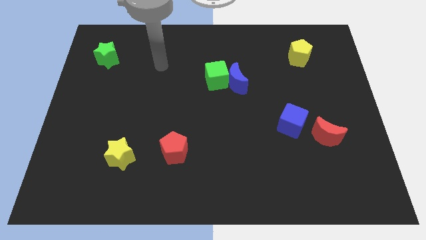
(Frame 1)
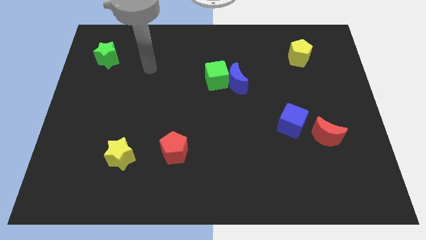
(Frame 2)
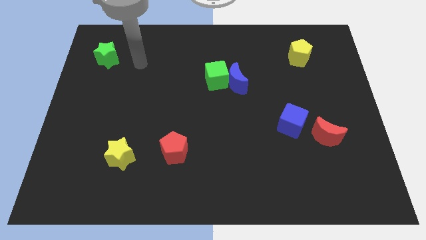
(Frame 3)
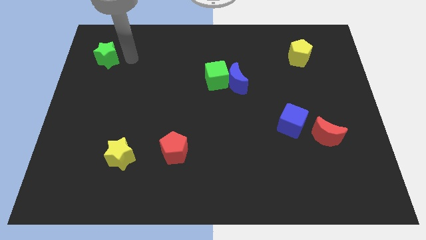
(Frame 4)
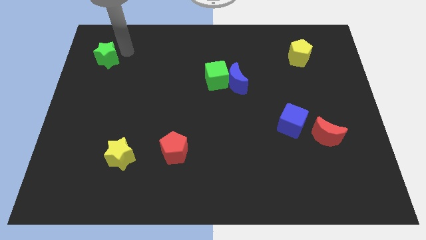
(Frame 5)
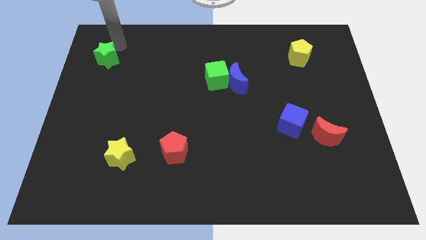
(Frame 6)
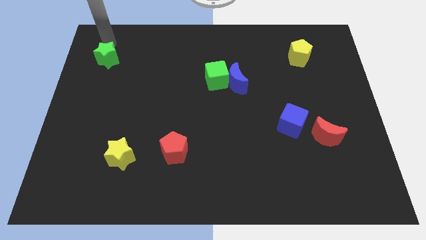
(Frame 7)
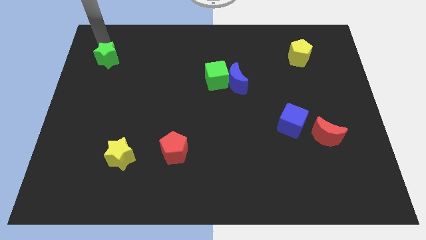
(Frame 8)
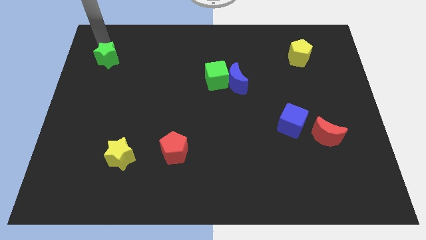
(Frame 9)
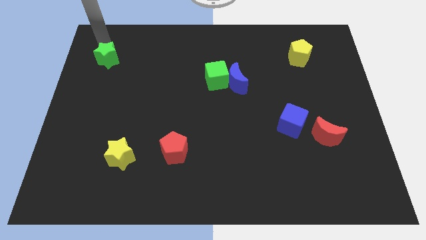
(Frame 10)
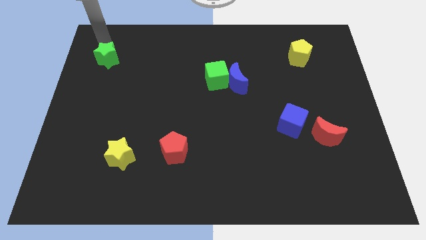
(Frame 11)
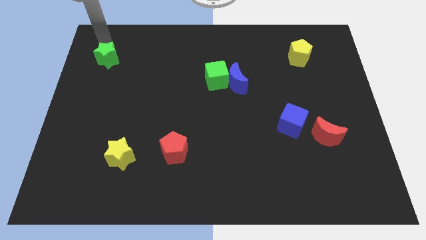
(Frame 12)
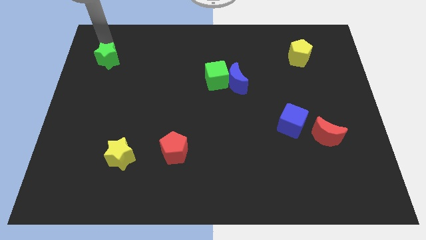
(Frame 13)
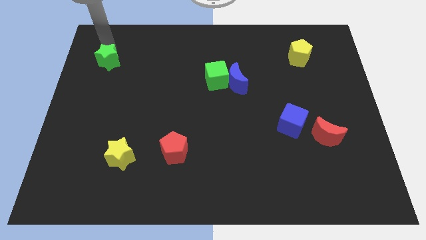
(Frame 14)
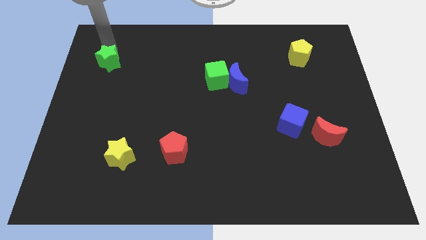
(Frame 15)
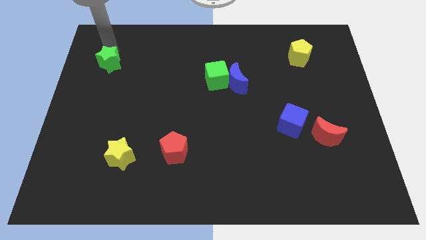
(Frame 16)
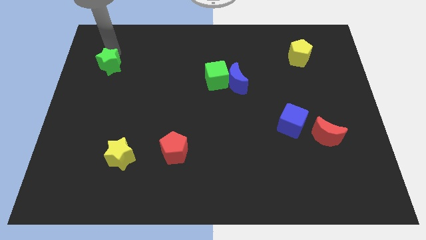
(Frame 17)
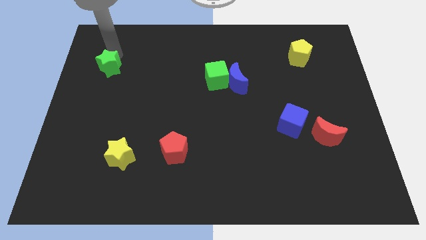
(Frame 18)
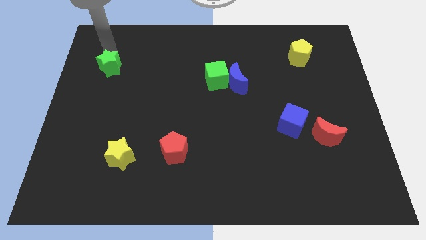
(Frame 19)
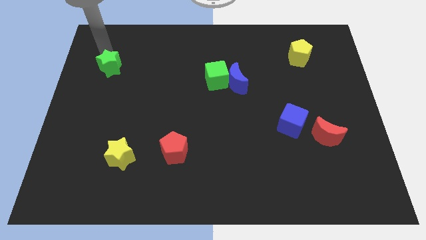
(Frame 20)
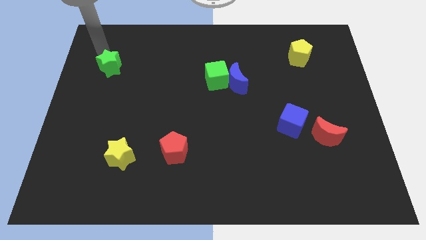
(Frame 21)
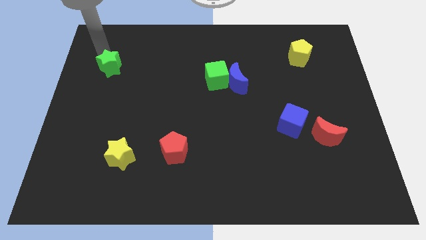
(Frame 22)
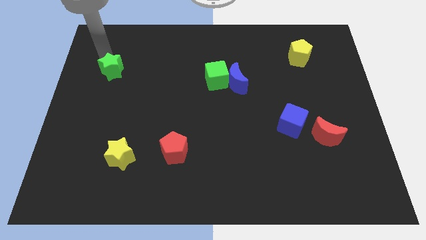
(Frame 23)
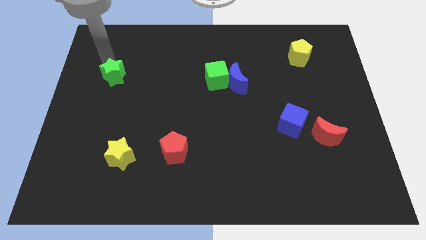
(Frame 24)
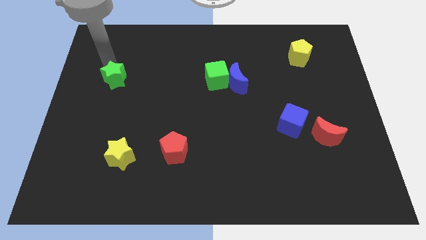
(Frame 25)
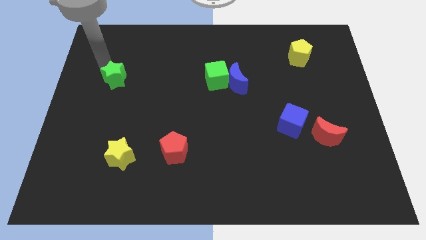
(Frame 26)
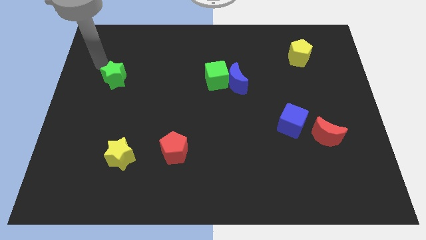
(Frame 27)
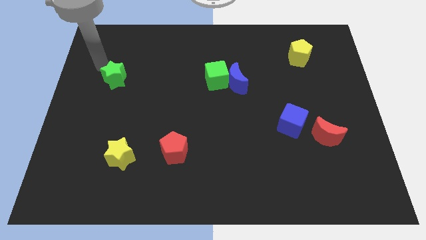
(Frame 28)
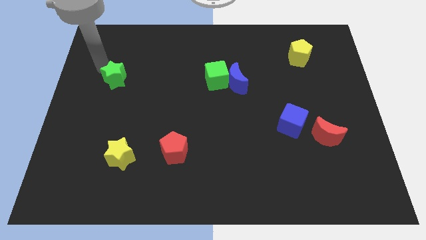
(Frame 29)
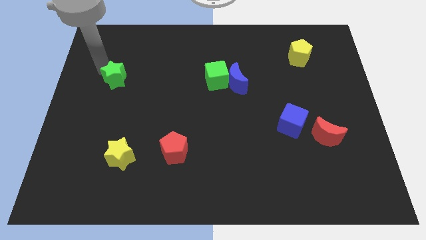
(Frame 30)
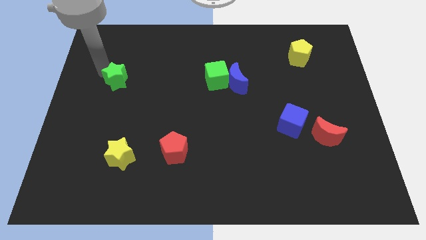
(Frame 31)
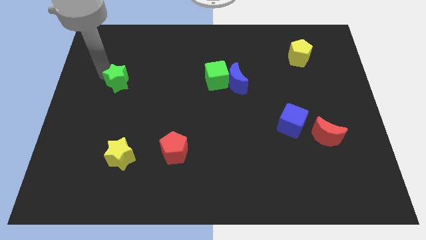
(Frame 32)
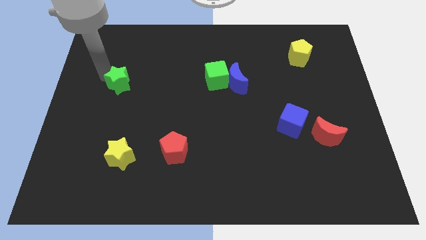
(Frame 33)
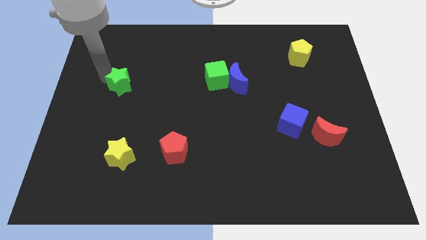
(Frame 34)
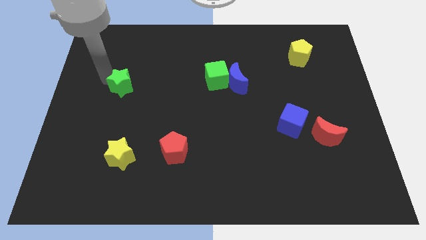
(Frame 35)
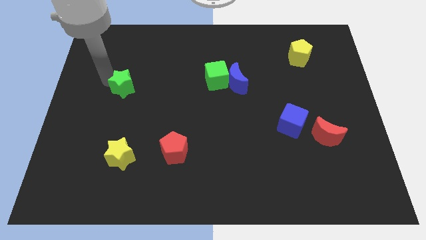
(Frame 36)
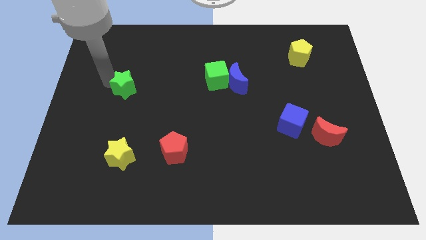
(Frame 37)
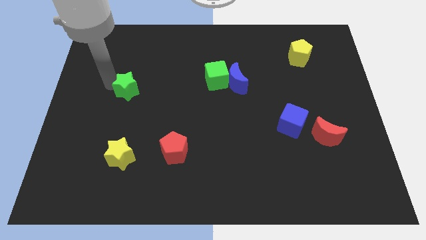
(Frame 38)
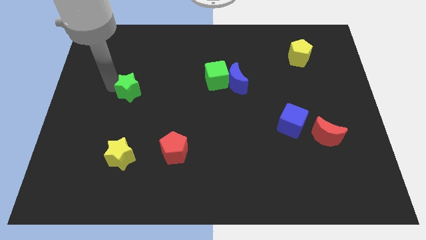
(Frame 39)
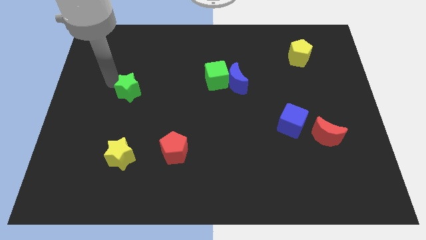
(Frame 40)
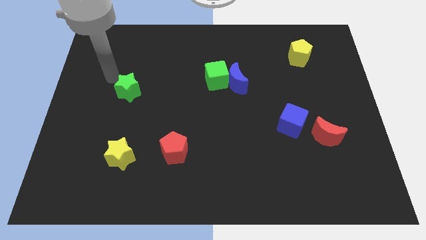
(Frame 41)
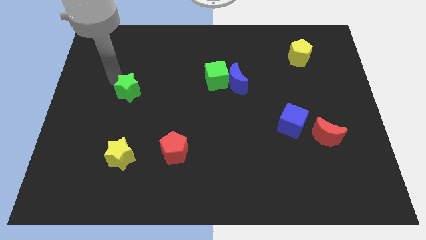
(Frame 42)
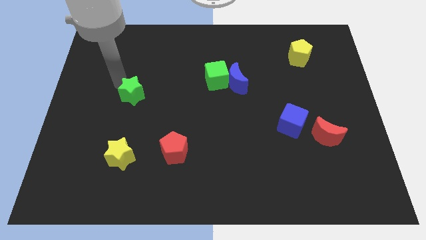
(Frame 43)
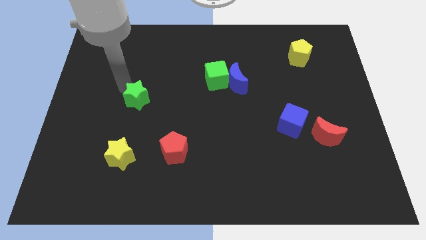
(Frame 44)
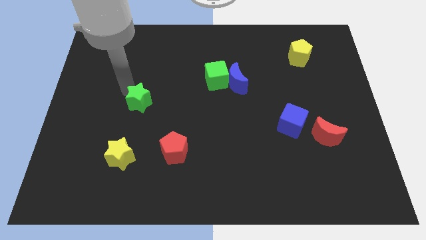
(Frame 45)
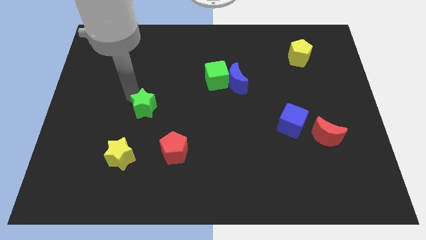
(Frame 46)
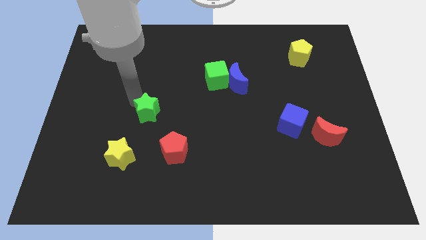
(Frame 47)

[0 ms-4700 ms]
push the green star diagonally down and right

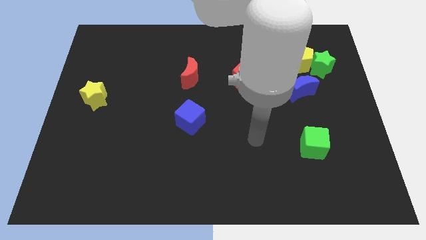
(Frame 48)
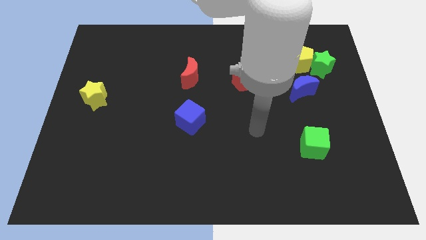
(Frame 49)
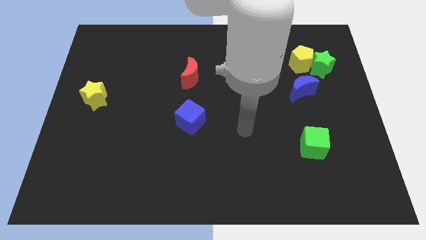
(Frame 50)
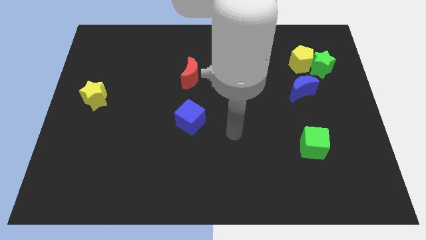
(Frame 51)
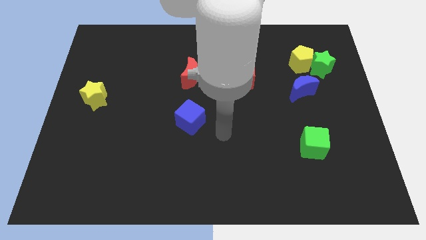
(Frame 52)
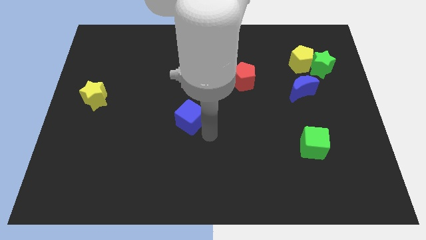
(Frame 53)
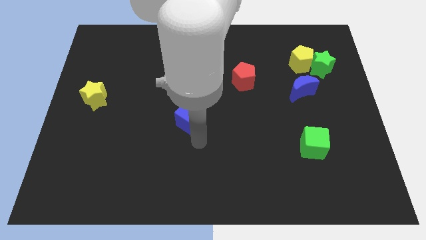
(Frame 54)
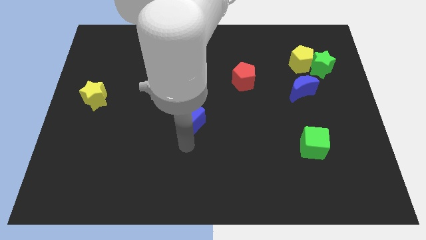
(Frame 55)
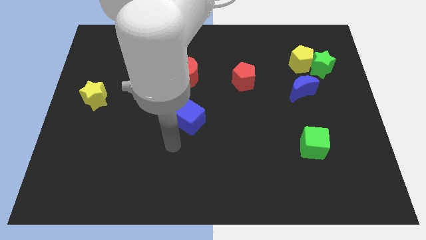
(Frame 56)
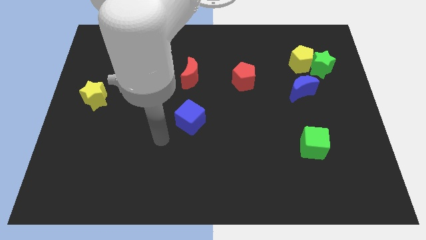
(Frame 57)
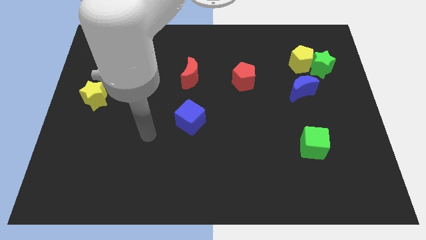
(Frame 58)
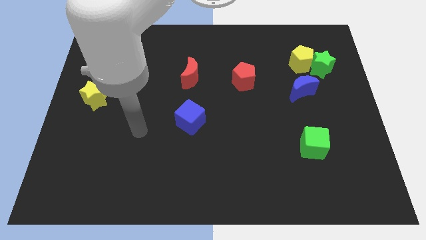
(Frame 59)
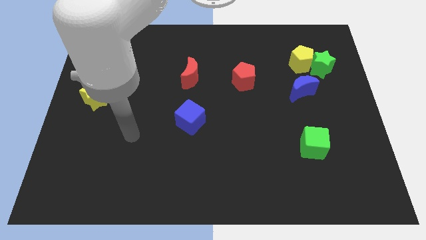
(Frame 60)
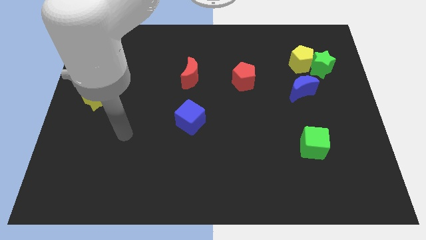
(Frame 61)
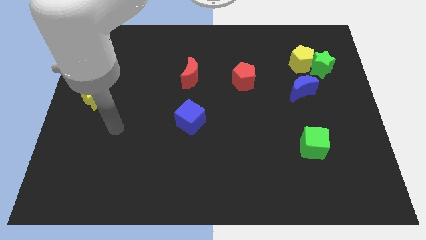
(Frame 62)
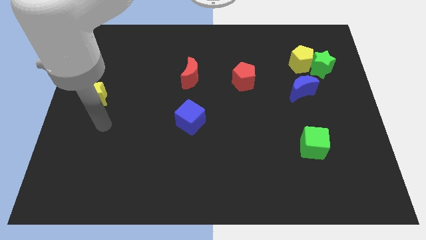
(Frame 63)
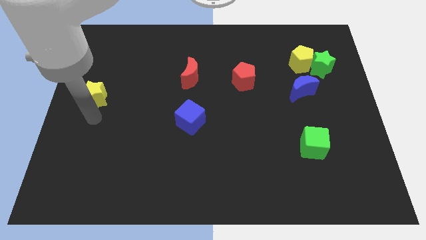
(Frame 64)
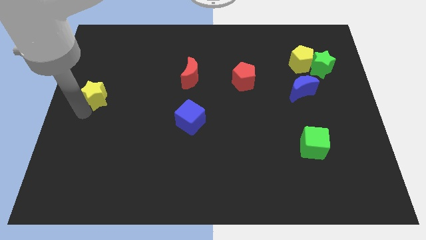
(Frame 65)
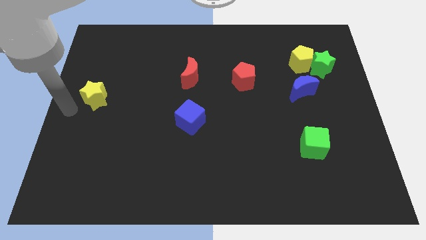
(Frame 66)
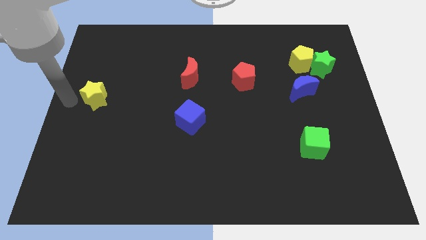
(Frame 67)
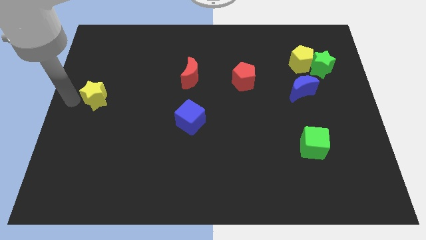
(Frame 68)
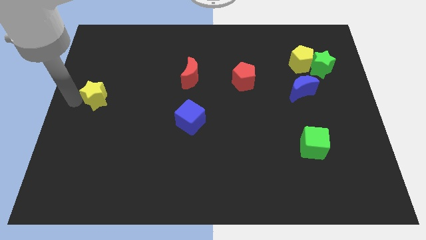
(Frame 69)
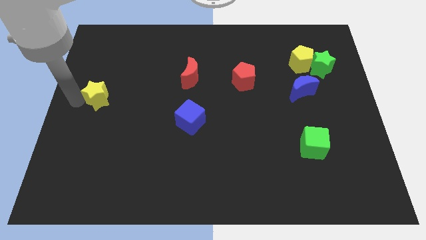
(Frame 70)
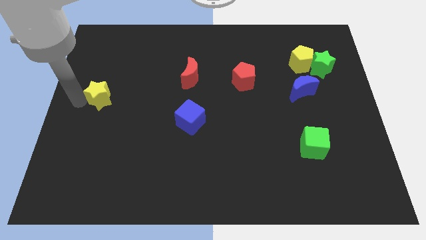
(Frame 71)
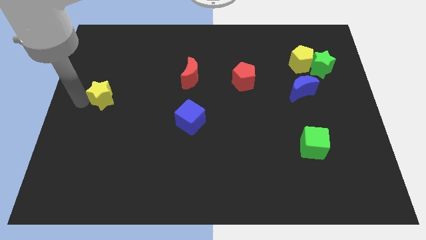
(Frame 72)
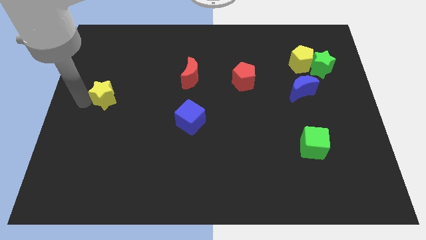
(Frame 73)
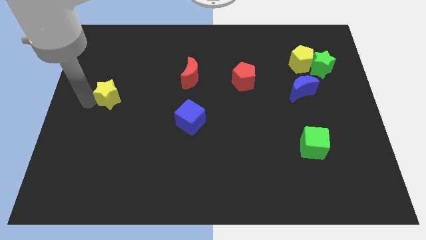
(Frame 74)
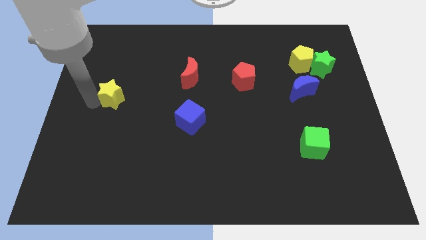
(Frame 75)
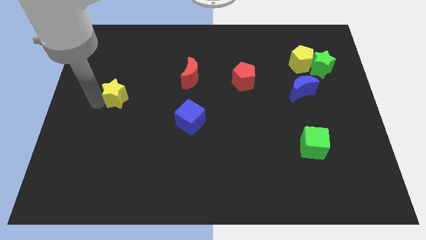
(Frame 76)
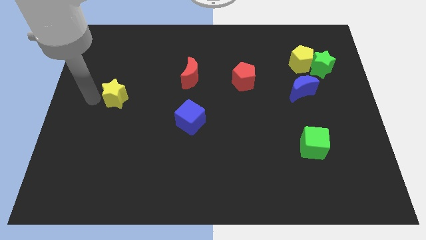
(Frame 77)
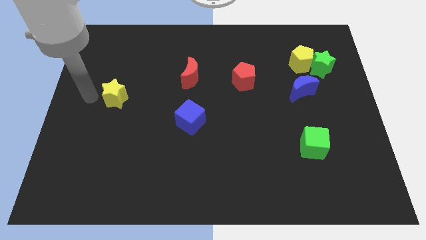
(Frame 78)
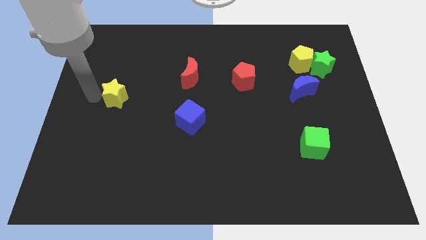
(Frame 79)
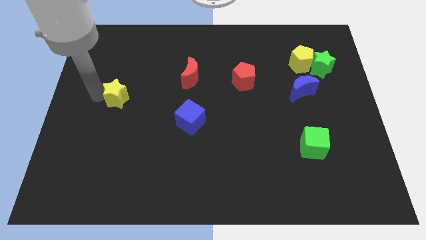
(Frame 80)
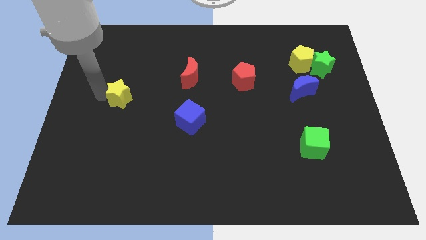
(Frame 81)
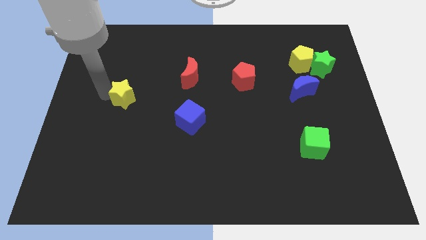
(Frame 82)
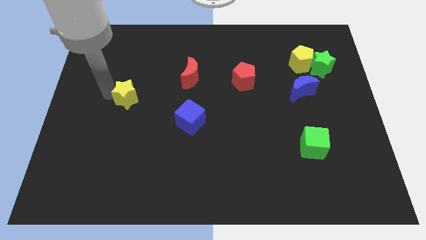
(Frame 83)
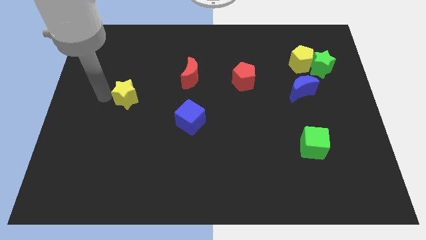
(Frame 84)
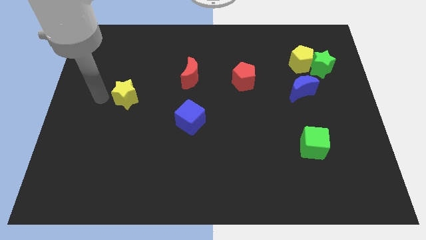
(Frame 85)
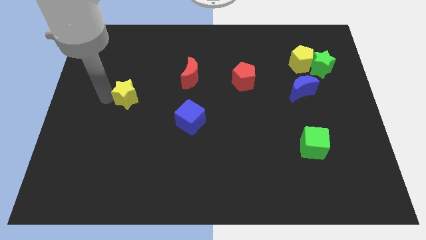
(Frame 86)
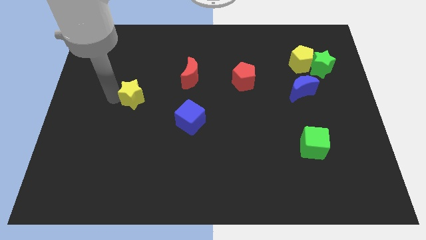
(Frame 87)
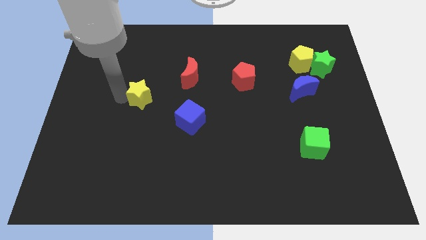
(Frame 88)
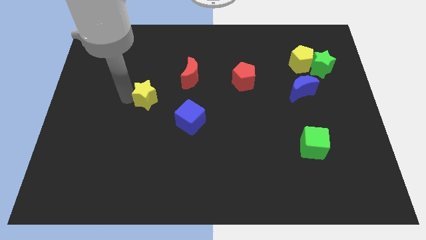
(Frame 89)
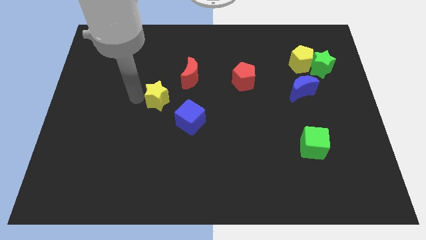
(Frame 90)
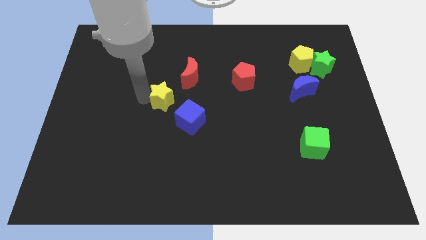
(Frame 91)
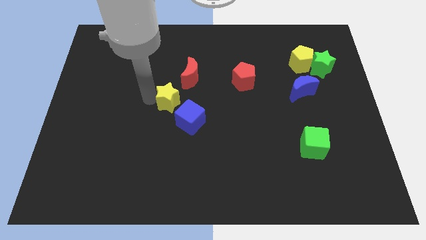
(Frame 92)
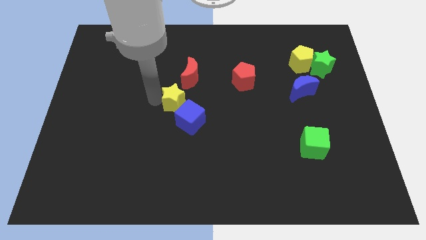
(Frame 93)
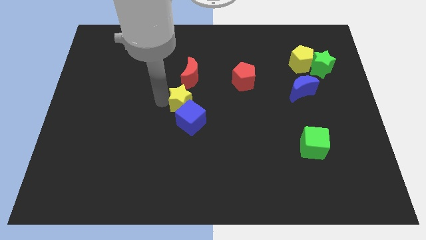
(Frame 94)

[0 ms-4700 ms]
push the yellow star to the right
